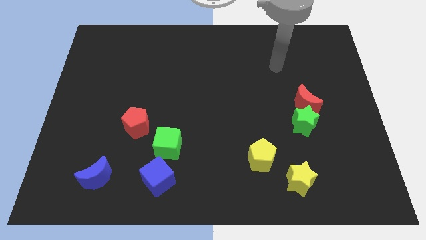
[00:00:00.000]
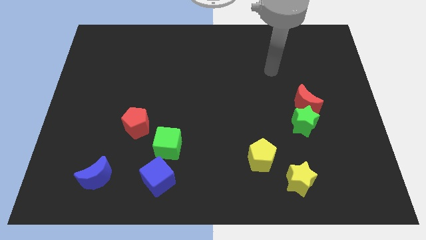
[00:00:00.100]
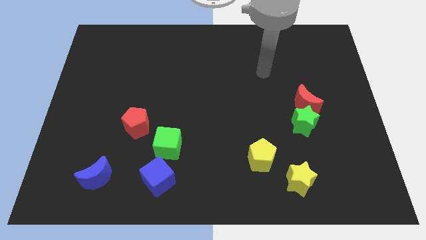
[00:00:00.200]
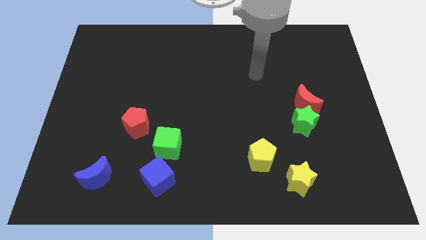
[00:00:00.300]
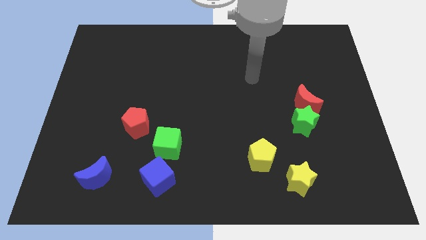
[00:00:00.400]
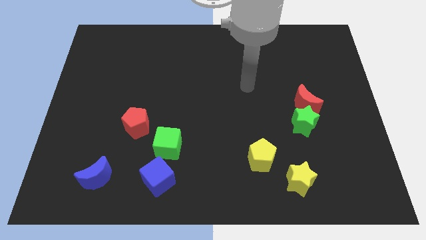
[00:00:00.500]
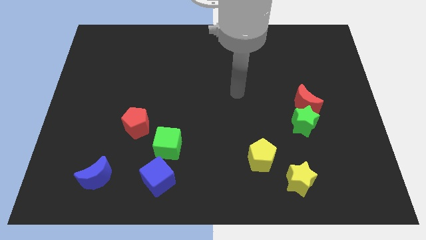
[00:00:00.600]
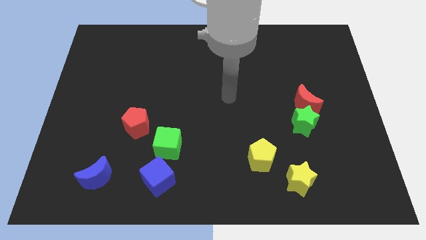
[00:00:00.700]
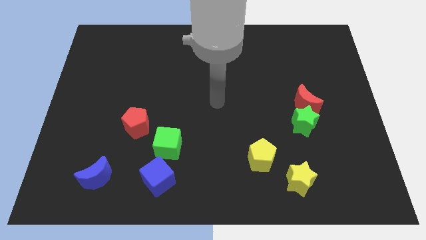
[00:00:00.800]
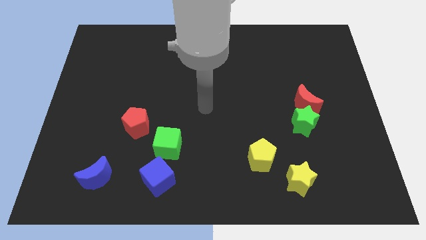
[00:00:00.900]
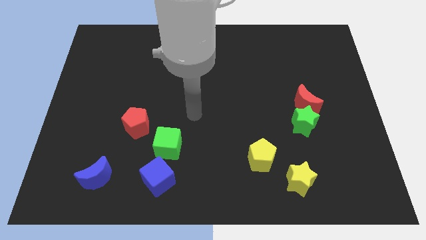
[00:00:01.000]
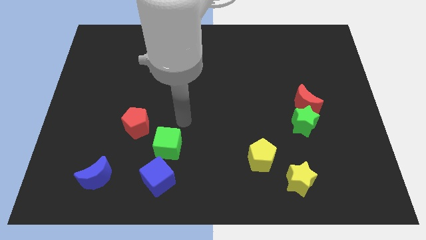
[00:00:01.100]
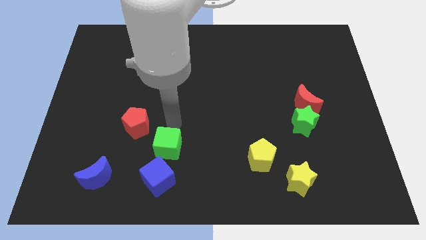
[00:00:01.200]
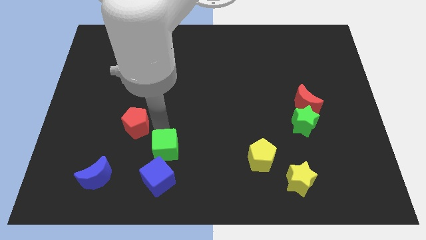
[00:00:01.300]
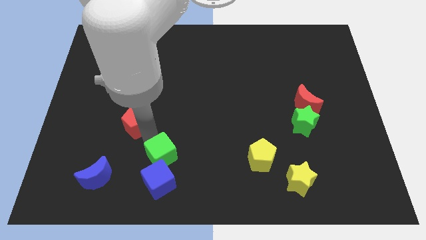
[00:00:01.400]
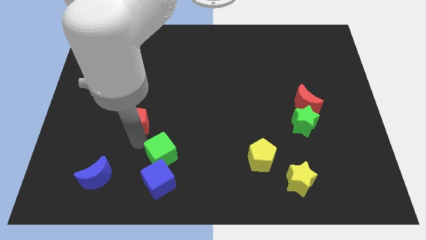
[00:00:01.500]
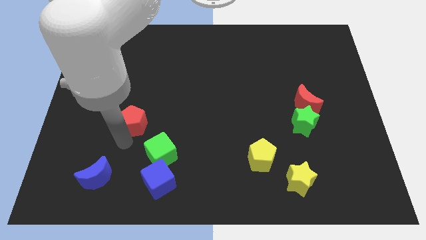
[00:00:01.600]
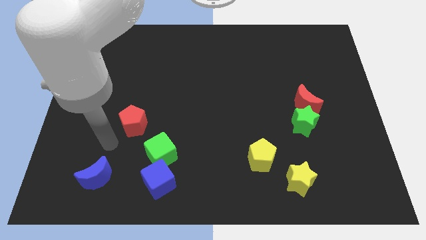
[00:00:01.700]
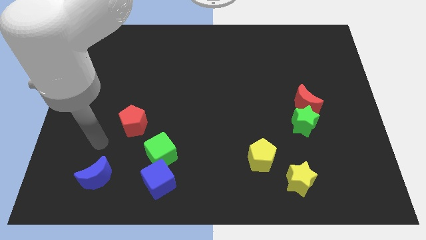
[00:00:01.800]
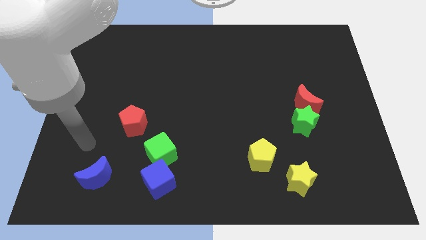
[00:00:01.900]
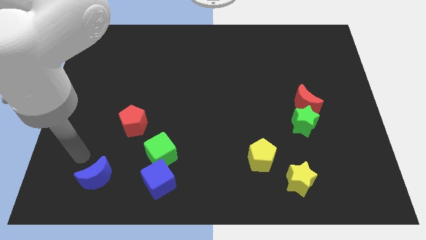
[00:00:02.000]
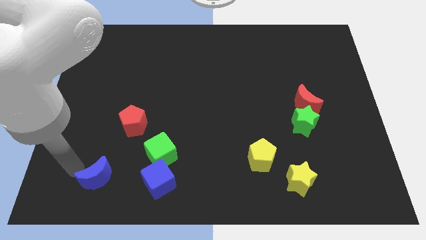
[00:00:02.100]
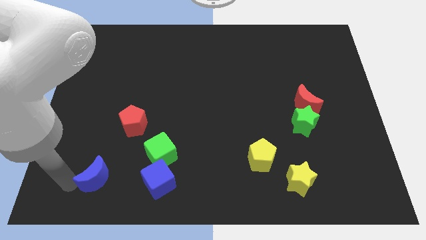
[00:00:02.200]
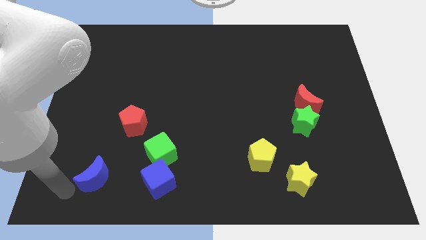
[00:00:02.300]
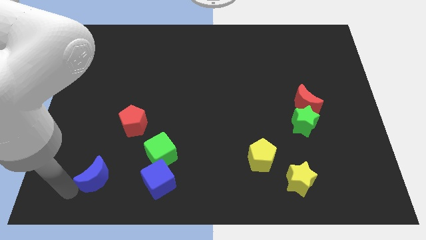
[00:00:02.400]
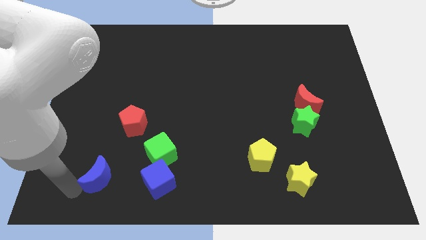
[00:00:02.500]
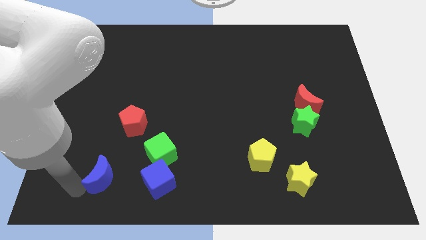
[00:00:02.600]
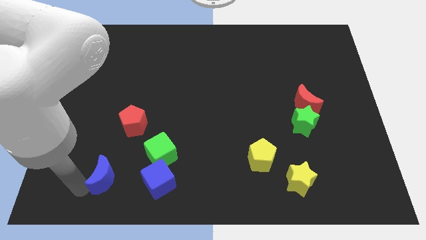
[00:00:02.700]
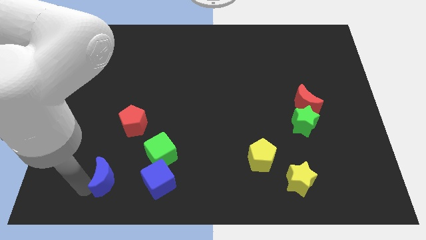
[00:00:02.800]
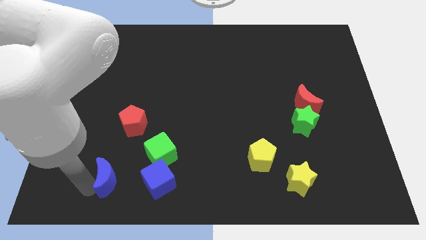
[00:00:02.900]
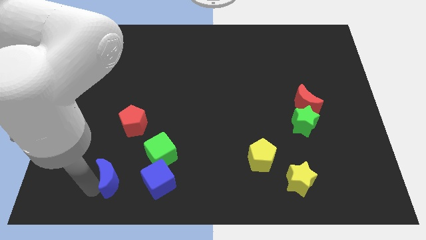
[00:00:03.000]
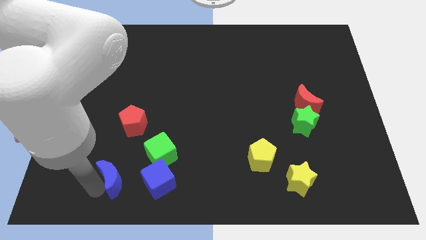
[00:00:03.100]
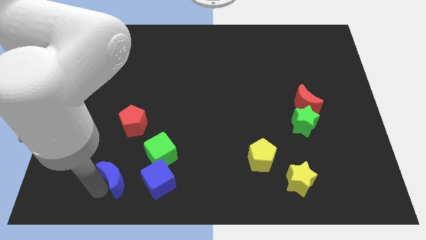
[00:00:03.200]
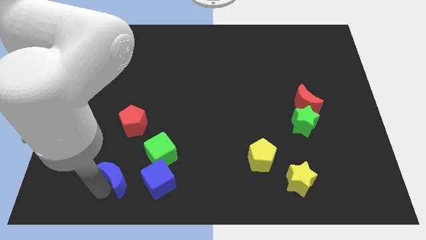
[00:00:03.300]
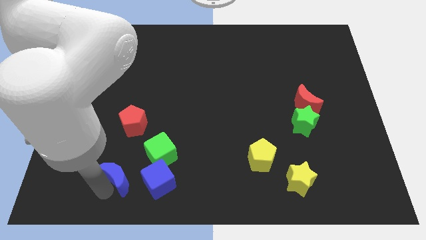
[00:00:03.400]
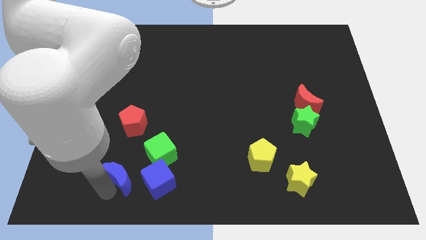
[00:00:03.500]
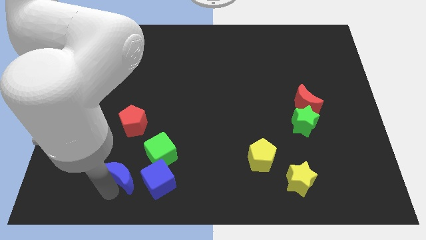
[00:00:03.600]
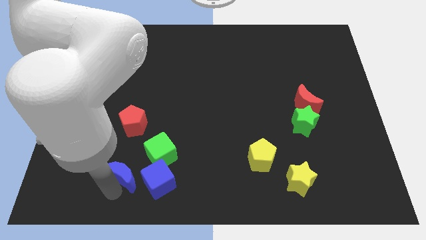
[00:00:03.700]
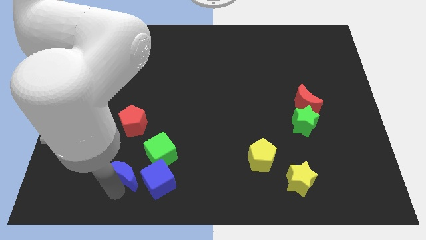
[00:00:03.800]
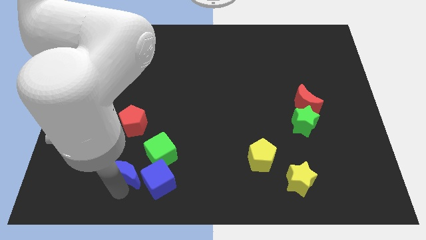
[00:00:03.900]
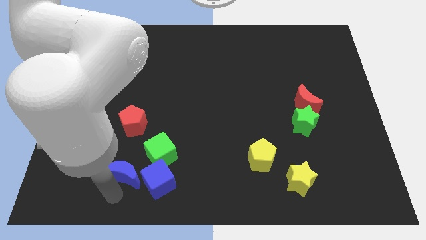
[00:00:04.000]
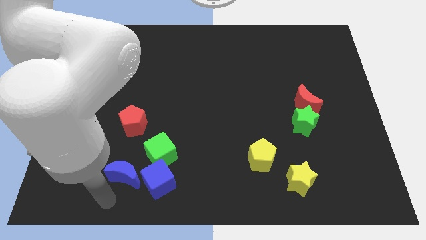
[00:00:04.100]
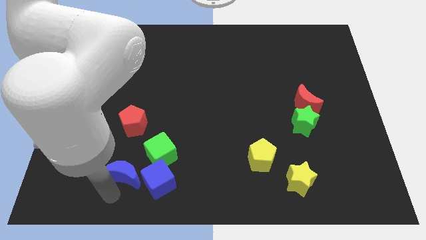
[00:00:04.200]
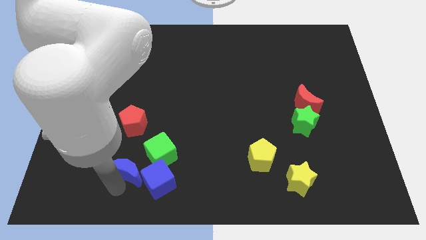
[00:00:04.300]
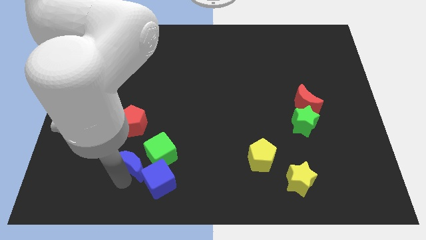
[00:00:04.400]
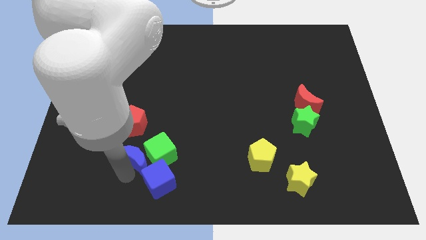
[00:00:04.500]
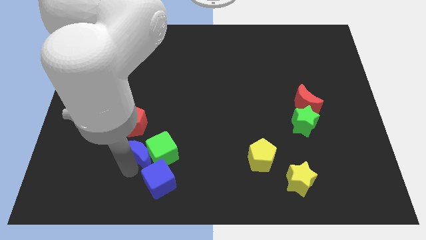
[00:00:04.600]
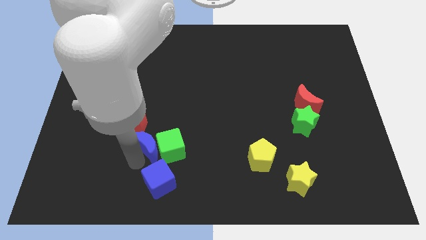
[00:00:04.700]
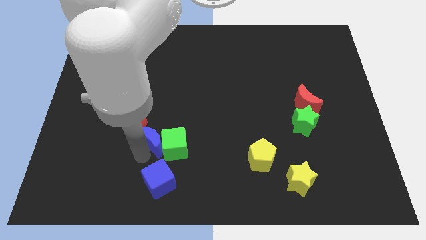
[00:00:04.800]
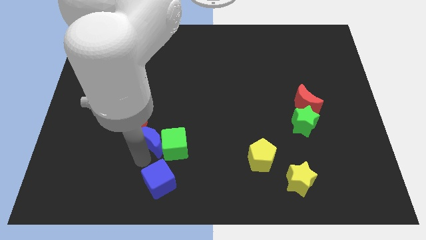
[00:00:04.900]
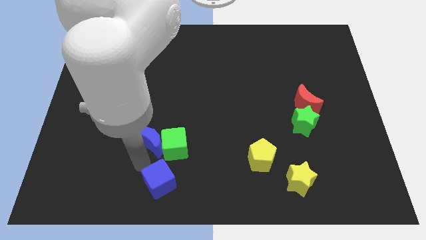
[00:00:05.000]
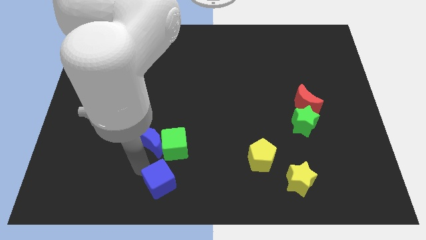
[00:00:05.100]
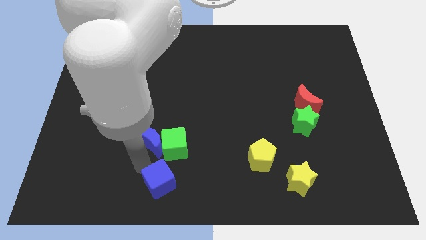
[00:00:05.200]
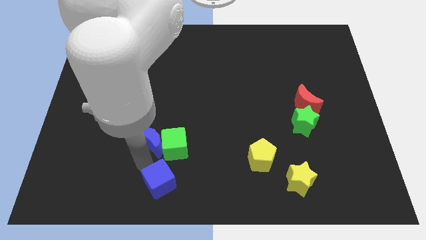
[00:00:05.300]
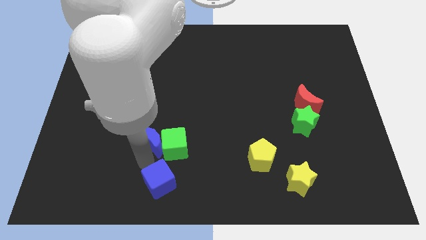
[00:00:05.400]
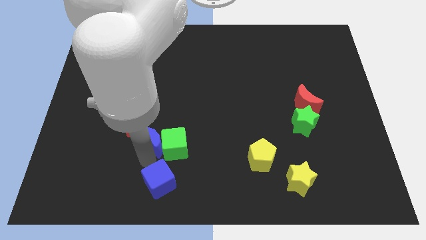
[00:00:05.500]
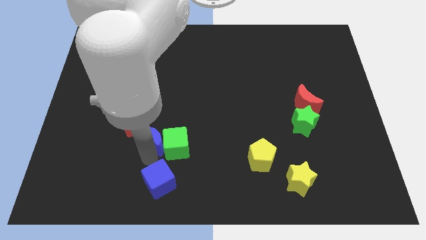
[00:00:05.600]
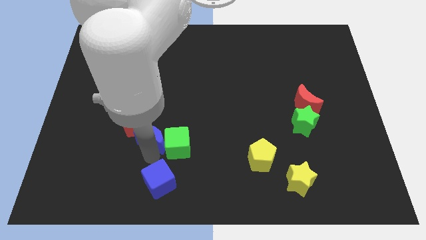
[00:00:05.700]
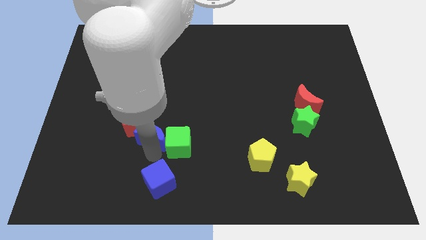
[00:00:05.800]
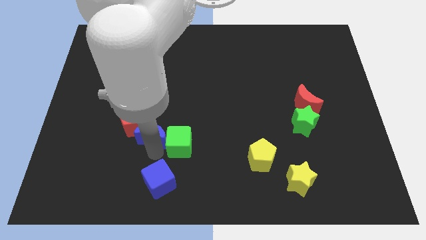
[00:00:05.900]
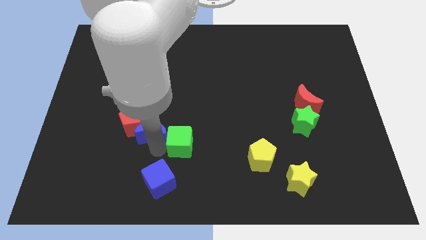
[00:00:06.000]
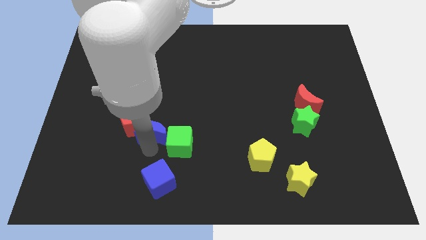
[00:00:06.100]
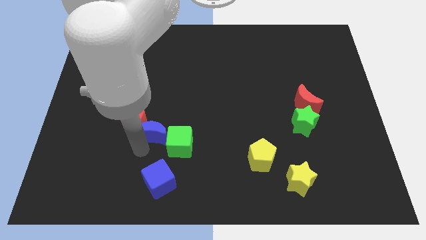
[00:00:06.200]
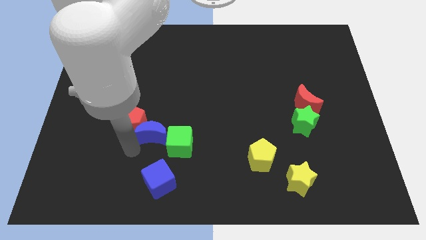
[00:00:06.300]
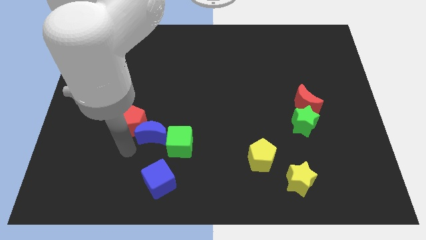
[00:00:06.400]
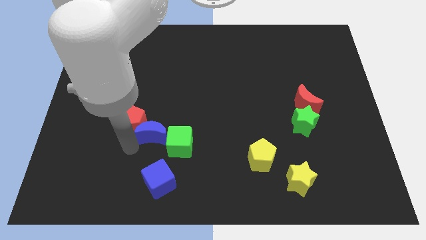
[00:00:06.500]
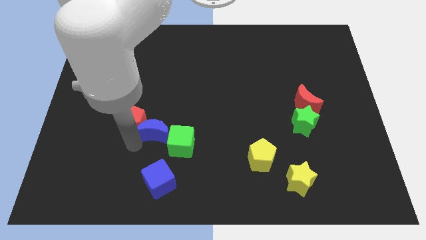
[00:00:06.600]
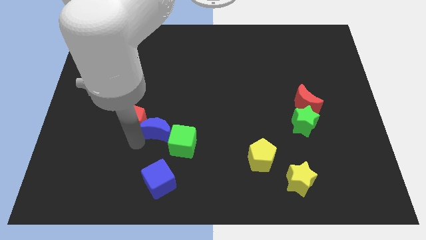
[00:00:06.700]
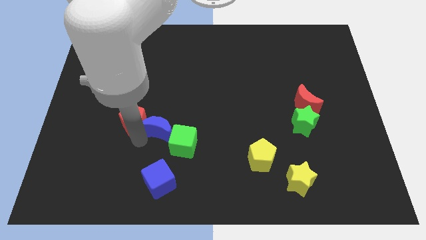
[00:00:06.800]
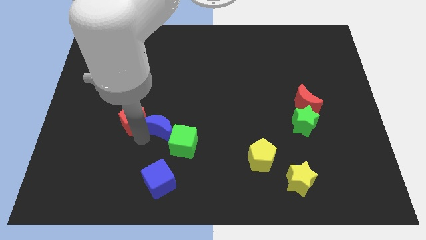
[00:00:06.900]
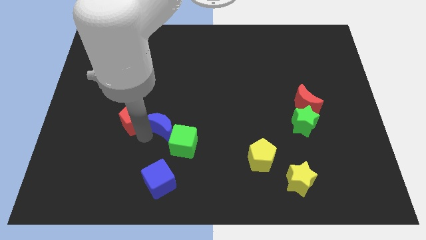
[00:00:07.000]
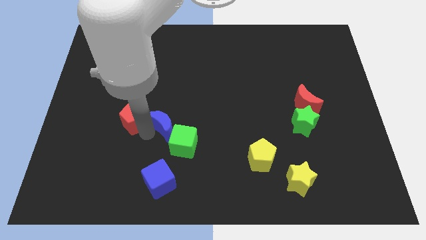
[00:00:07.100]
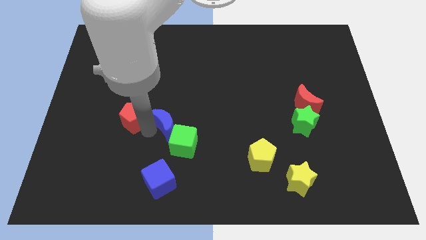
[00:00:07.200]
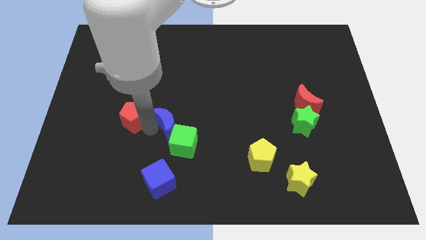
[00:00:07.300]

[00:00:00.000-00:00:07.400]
slide the blue moon to the middle
